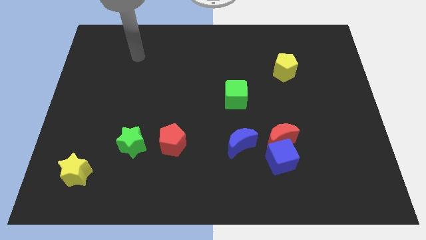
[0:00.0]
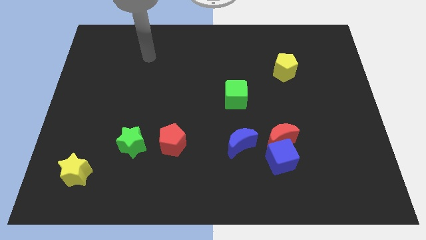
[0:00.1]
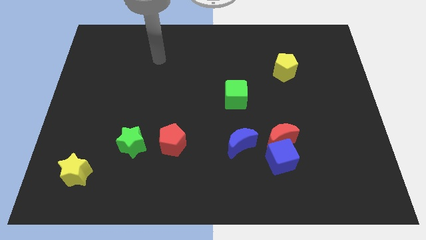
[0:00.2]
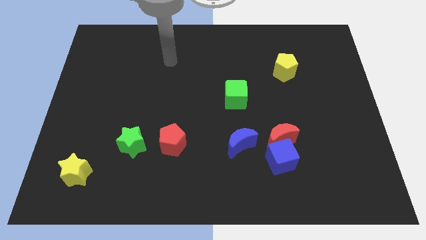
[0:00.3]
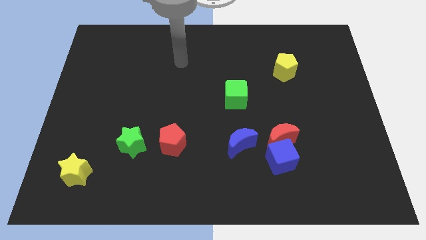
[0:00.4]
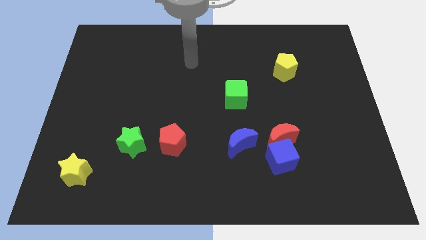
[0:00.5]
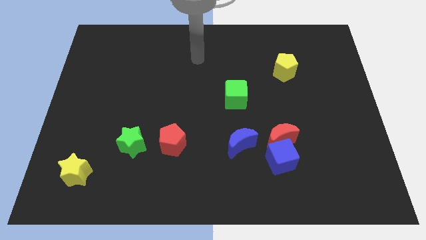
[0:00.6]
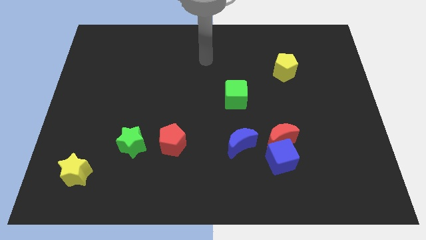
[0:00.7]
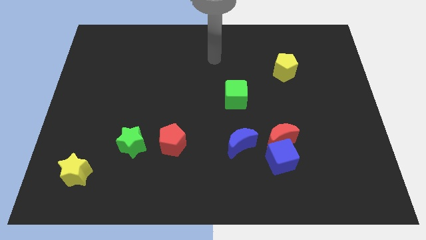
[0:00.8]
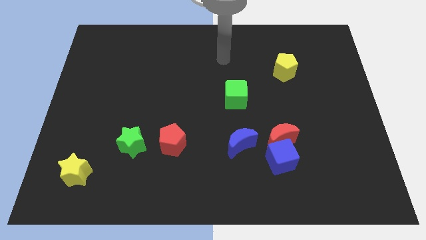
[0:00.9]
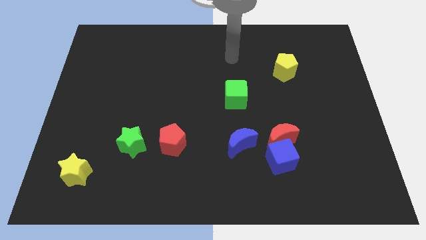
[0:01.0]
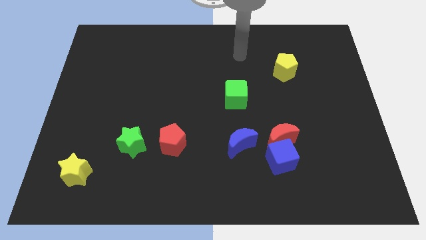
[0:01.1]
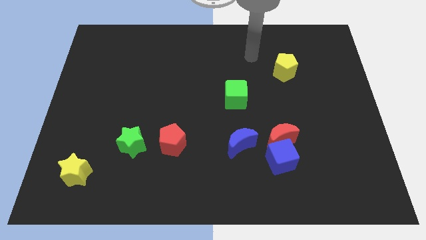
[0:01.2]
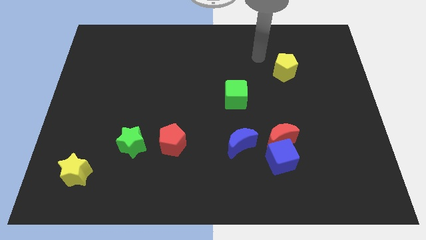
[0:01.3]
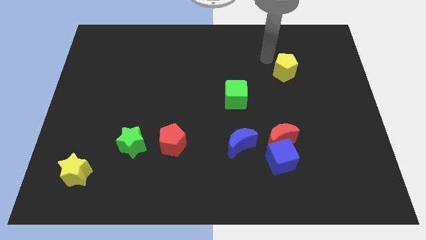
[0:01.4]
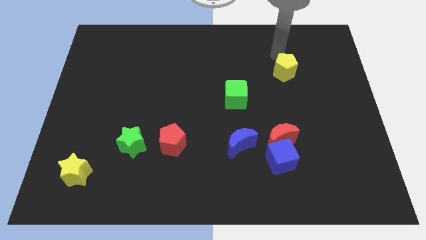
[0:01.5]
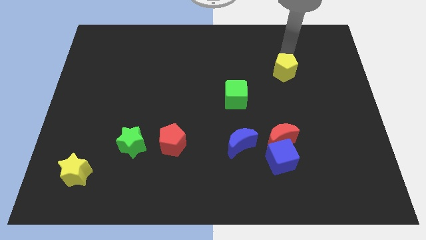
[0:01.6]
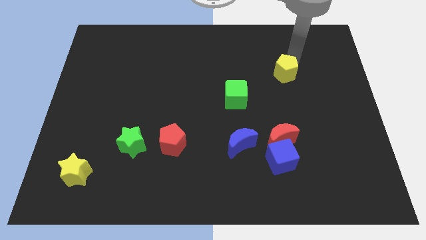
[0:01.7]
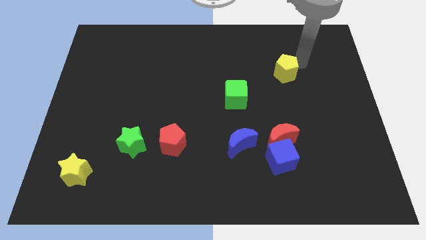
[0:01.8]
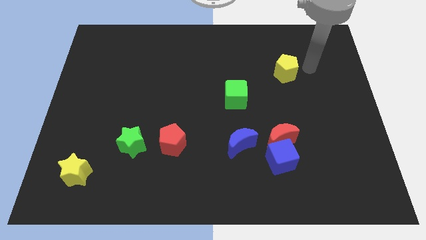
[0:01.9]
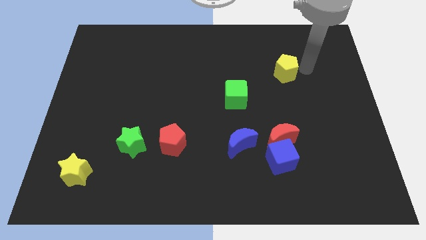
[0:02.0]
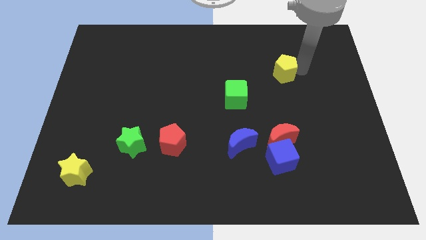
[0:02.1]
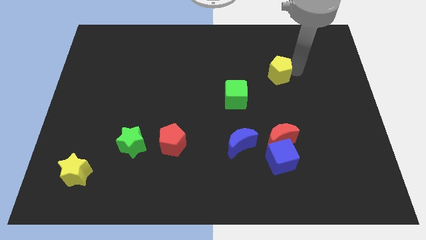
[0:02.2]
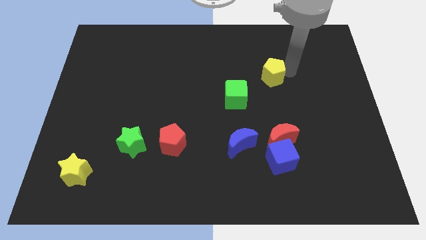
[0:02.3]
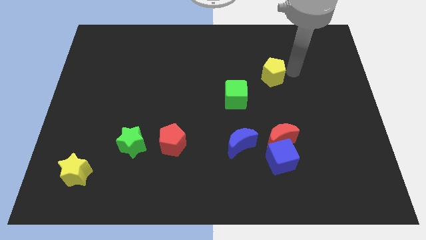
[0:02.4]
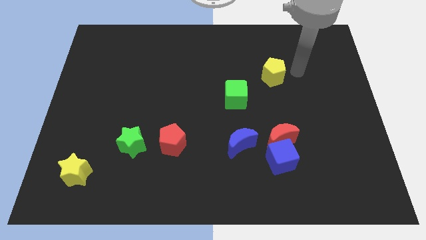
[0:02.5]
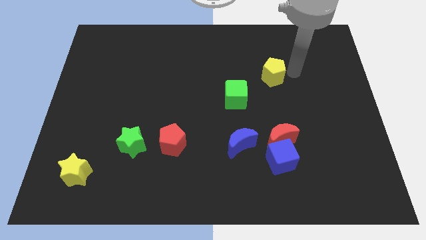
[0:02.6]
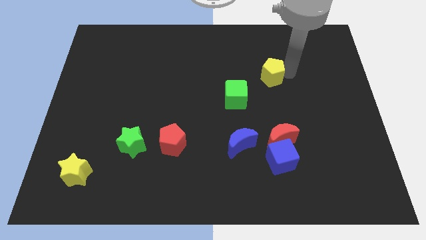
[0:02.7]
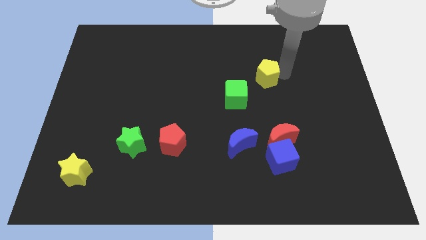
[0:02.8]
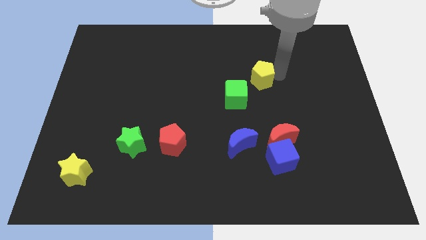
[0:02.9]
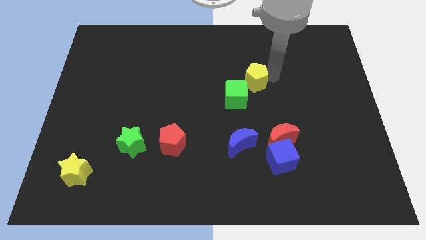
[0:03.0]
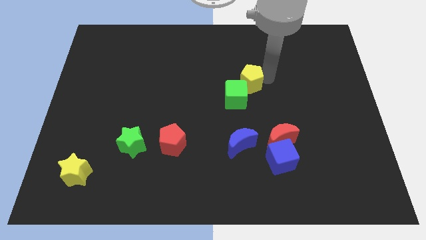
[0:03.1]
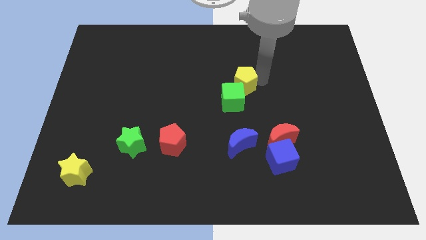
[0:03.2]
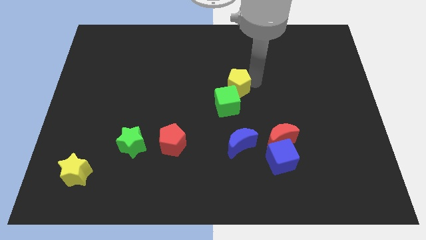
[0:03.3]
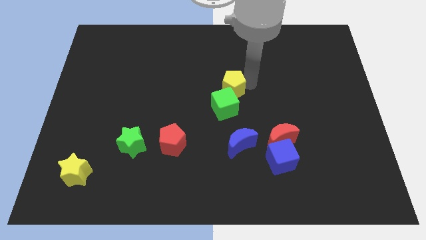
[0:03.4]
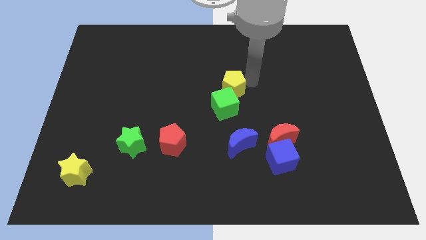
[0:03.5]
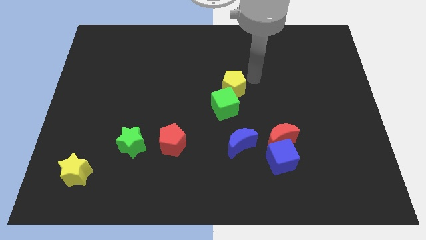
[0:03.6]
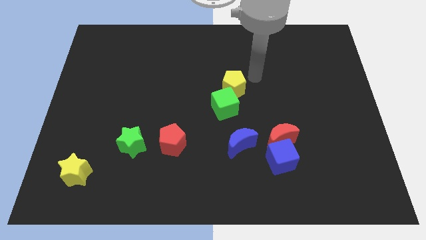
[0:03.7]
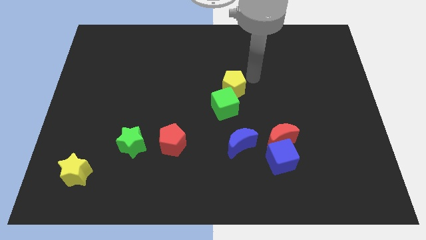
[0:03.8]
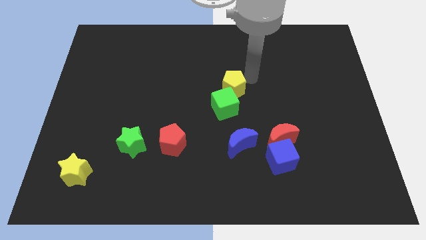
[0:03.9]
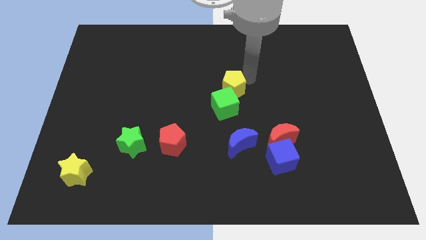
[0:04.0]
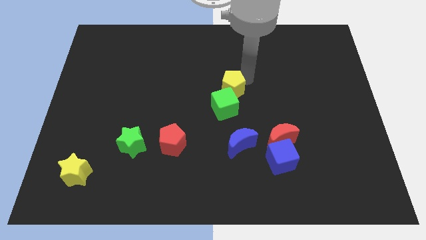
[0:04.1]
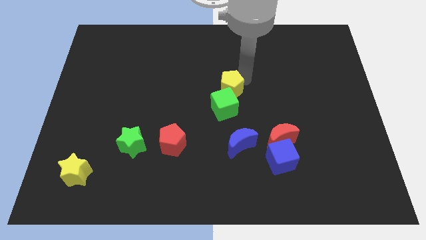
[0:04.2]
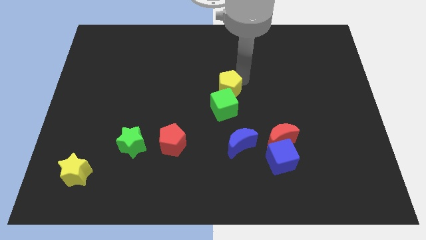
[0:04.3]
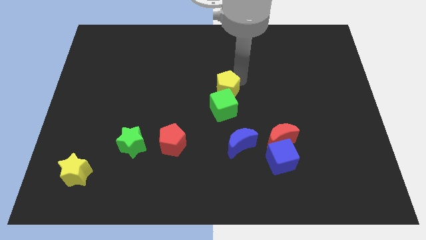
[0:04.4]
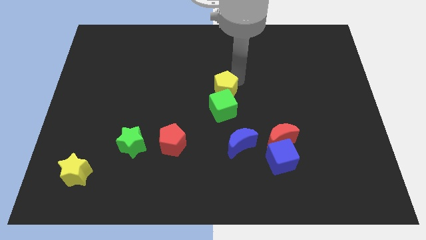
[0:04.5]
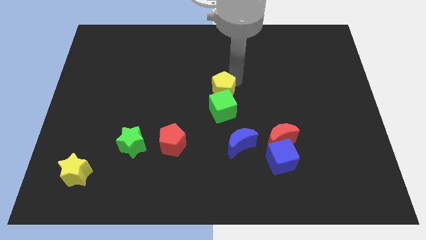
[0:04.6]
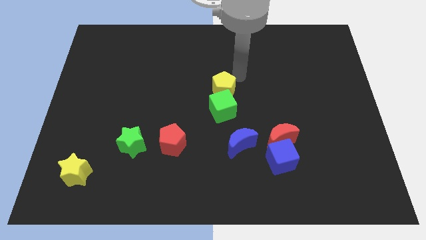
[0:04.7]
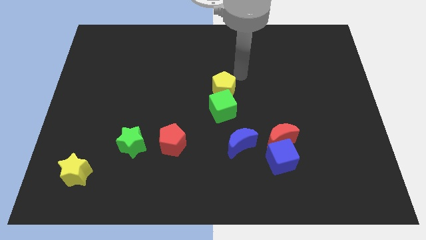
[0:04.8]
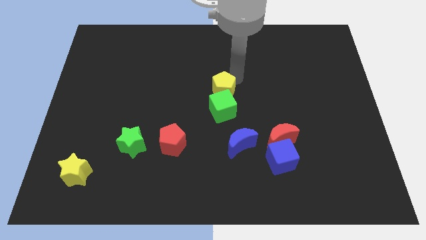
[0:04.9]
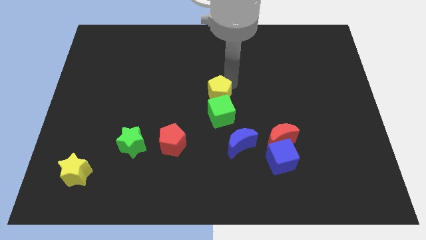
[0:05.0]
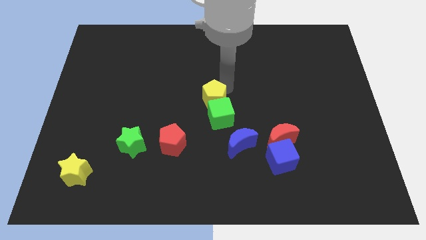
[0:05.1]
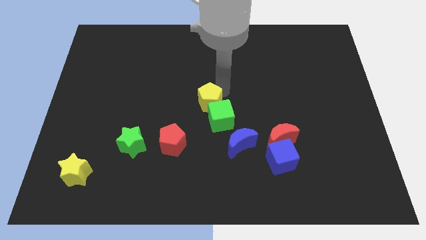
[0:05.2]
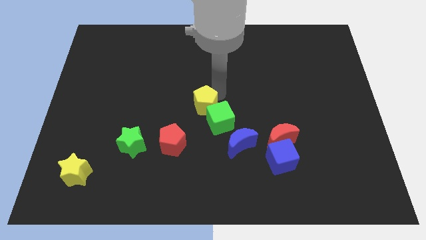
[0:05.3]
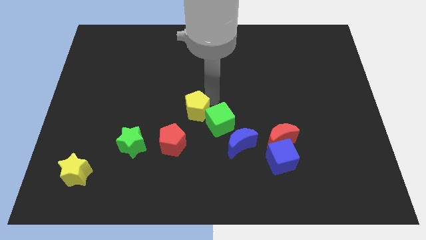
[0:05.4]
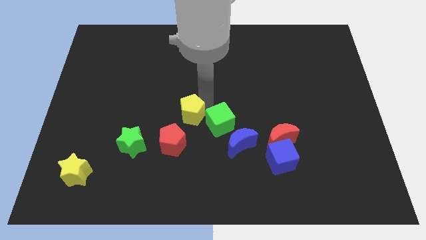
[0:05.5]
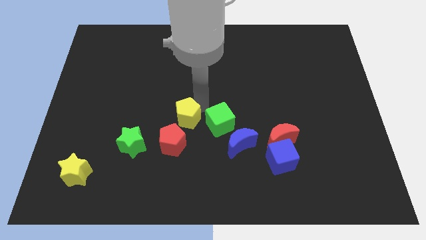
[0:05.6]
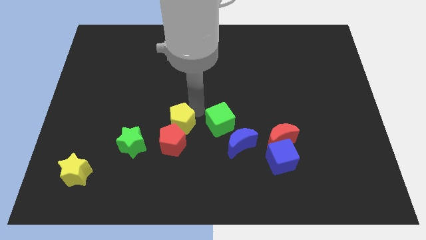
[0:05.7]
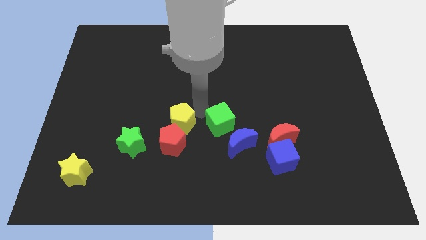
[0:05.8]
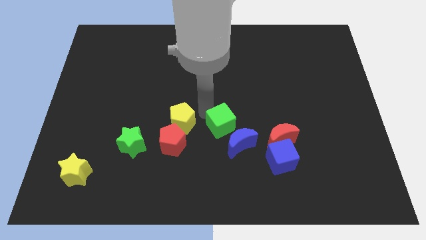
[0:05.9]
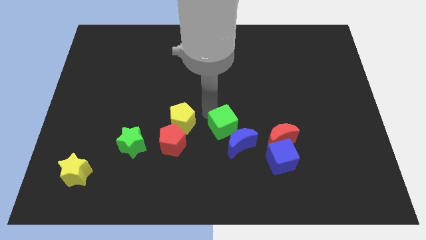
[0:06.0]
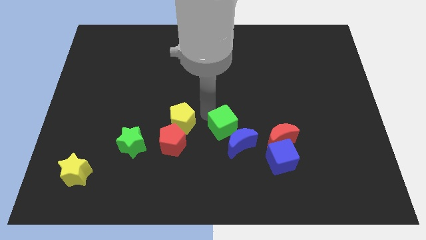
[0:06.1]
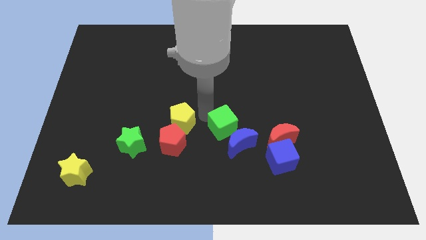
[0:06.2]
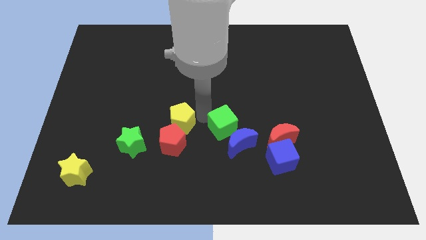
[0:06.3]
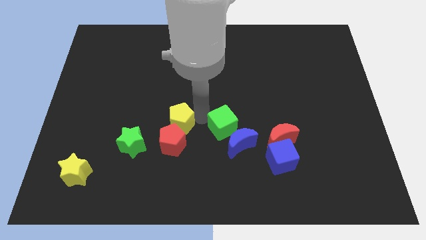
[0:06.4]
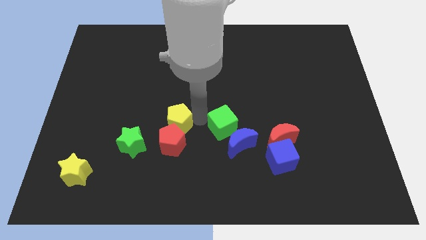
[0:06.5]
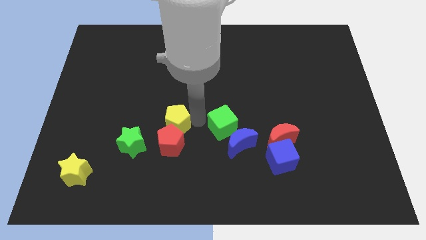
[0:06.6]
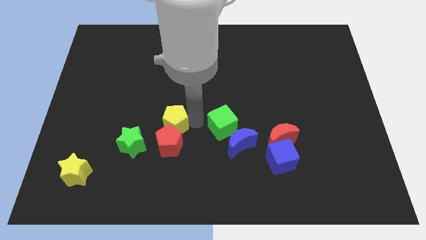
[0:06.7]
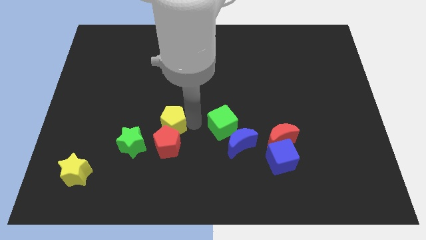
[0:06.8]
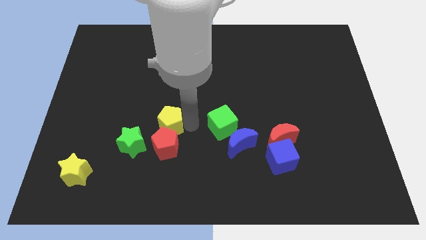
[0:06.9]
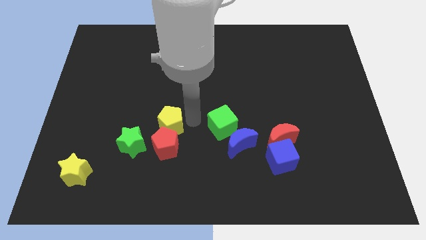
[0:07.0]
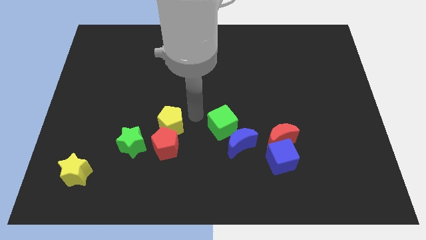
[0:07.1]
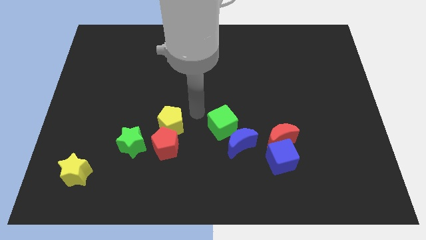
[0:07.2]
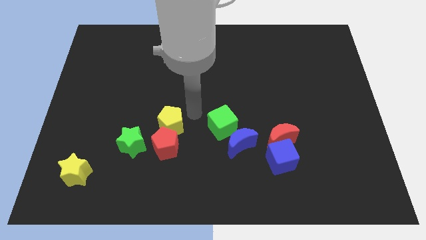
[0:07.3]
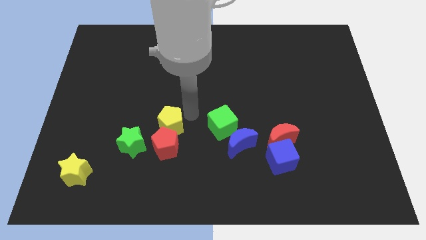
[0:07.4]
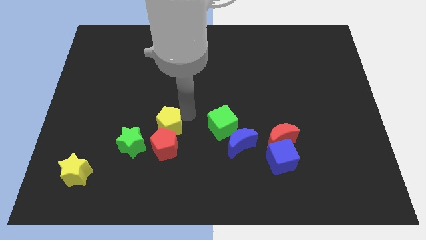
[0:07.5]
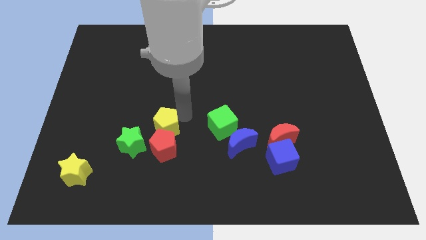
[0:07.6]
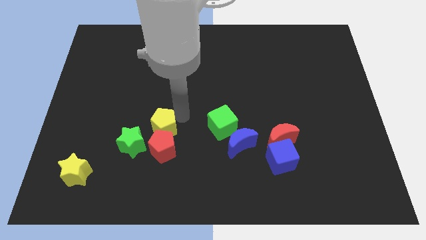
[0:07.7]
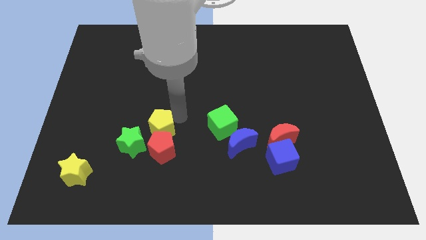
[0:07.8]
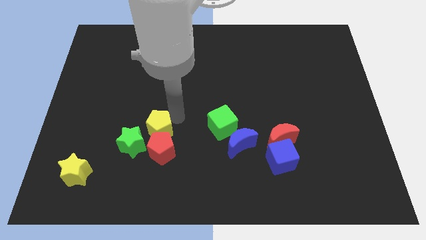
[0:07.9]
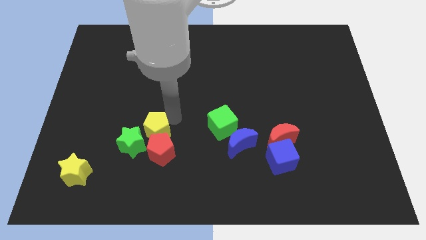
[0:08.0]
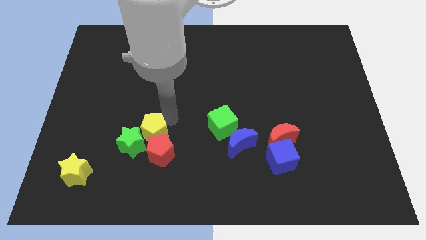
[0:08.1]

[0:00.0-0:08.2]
push the yellow pentagon to the green star
